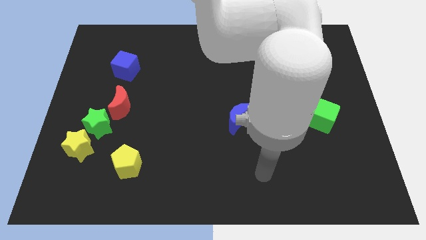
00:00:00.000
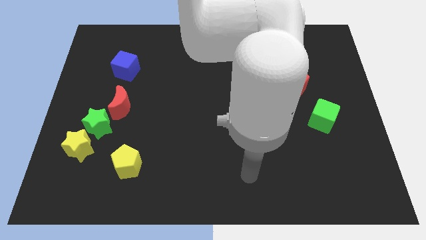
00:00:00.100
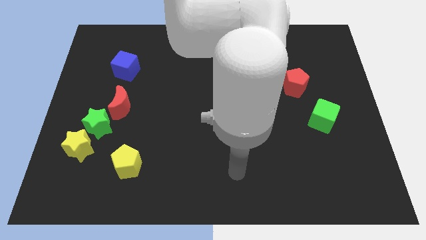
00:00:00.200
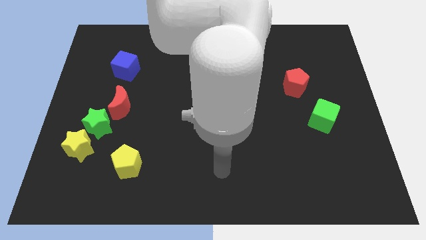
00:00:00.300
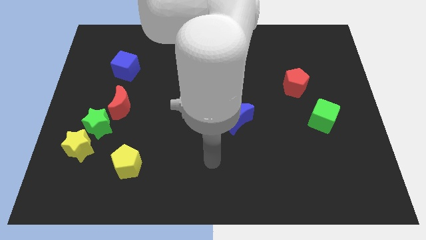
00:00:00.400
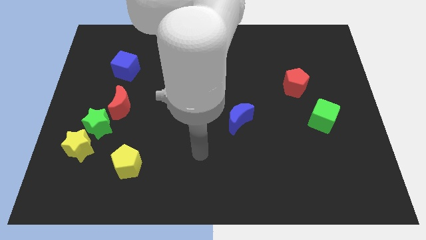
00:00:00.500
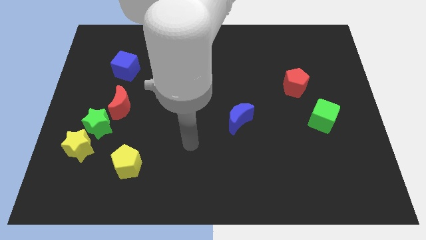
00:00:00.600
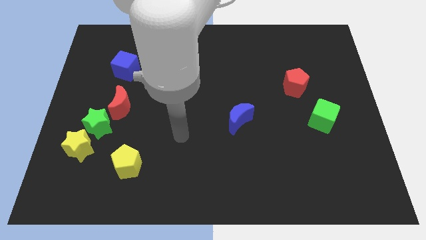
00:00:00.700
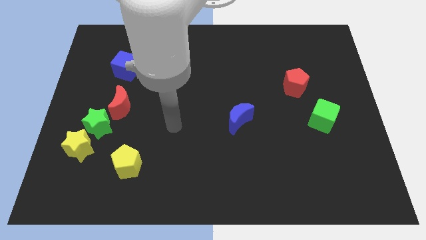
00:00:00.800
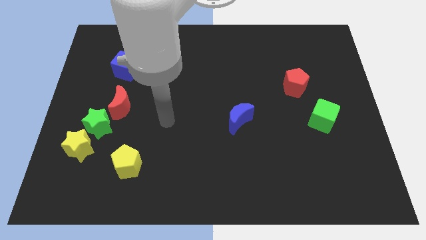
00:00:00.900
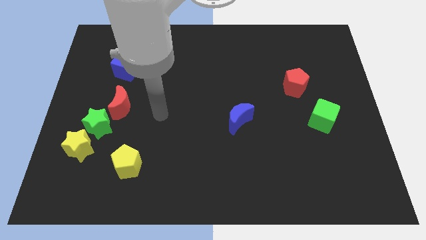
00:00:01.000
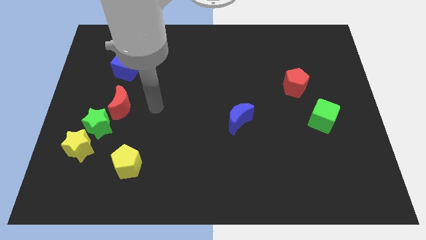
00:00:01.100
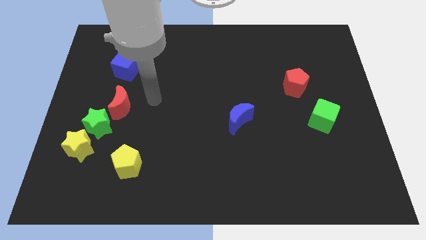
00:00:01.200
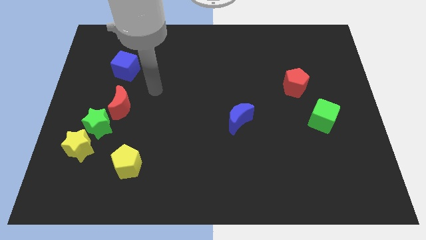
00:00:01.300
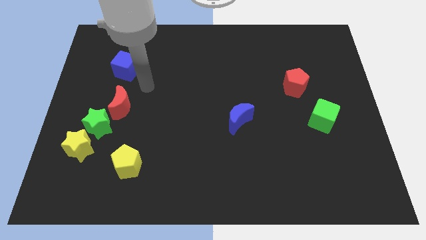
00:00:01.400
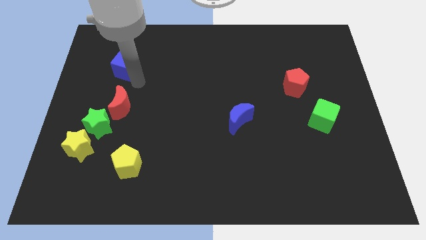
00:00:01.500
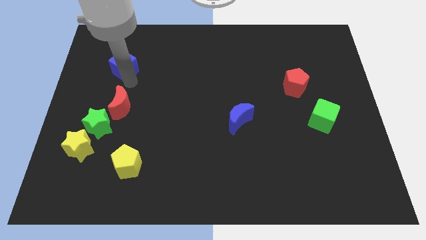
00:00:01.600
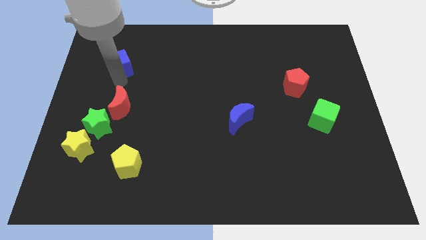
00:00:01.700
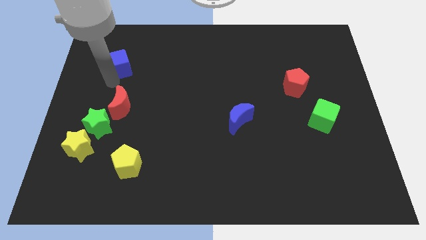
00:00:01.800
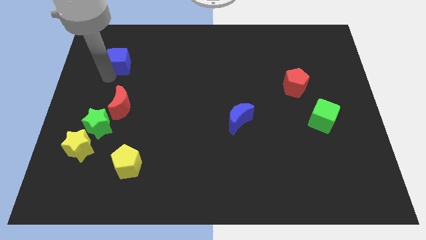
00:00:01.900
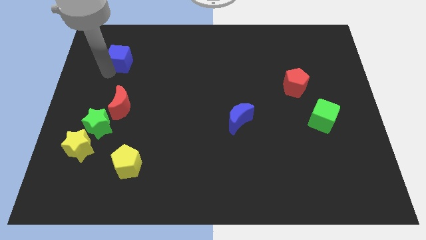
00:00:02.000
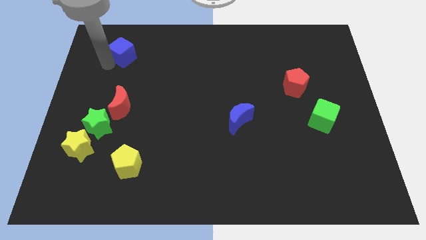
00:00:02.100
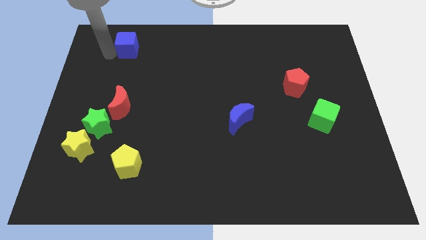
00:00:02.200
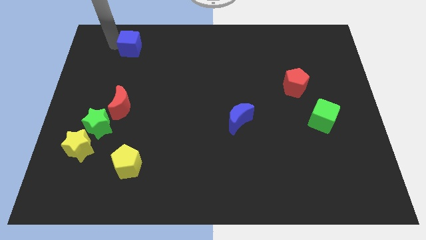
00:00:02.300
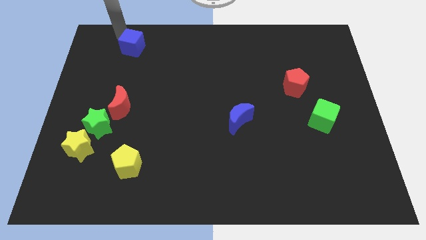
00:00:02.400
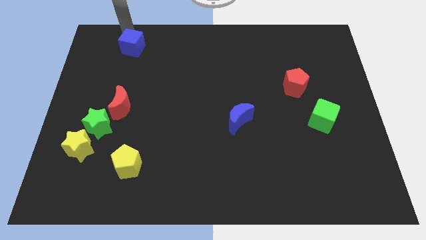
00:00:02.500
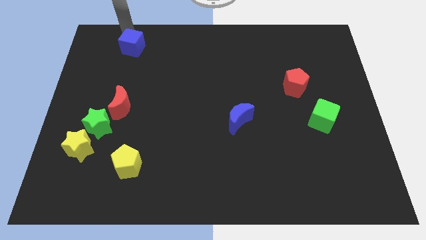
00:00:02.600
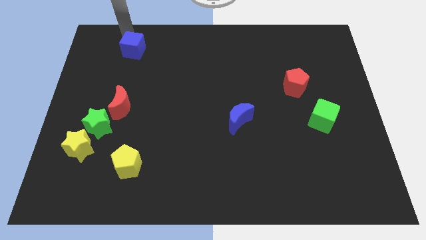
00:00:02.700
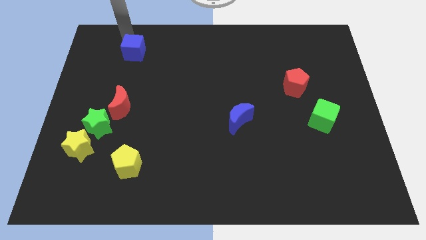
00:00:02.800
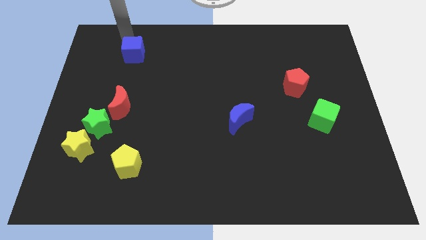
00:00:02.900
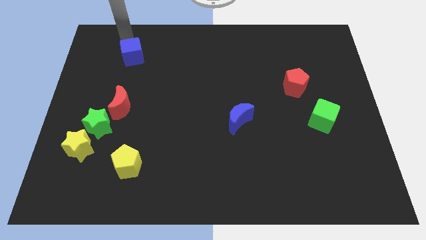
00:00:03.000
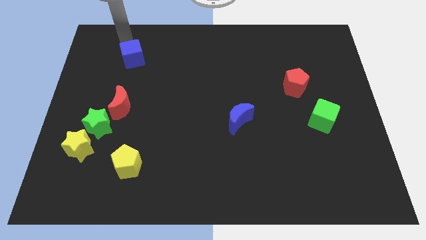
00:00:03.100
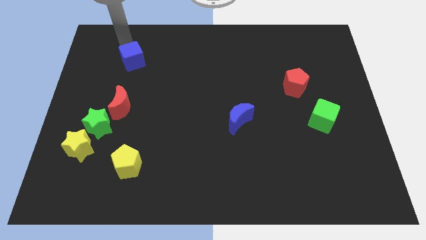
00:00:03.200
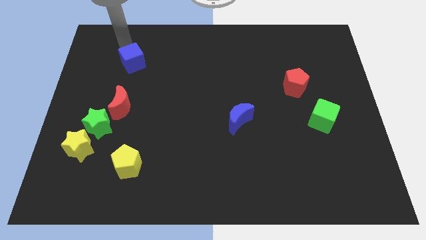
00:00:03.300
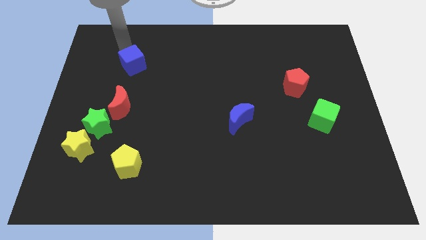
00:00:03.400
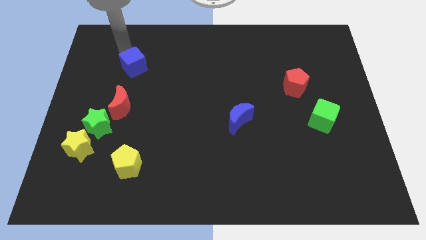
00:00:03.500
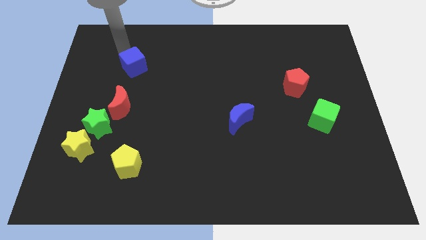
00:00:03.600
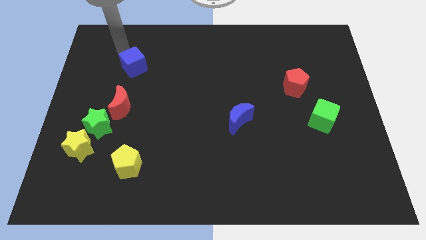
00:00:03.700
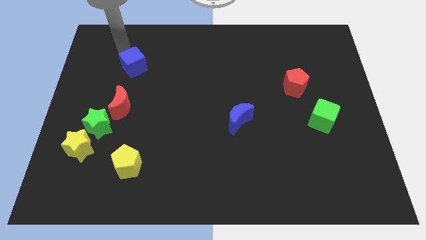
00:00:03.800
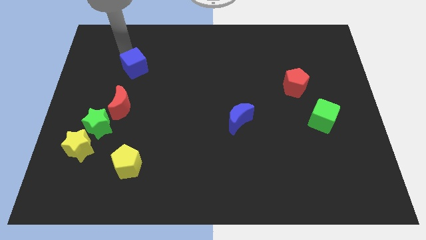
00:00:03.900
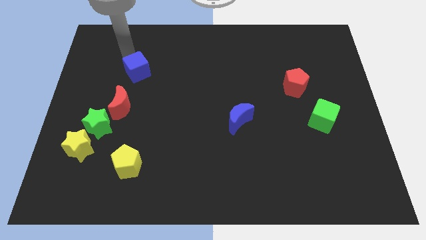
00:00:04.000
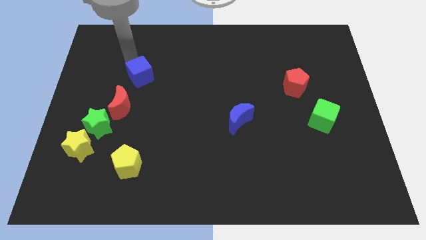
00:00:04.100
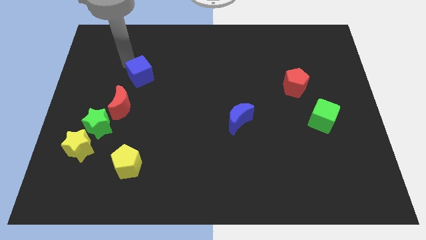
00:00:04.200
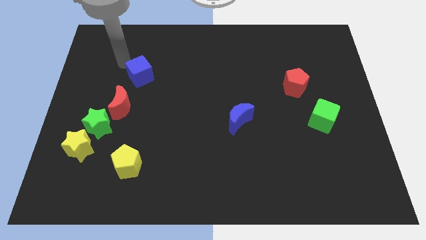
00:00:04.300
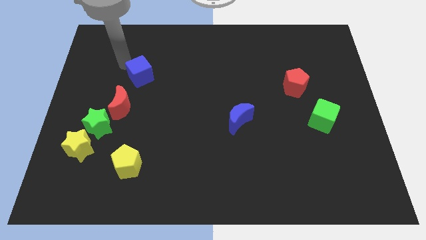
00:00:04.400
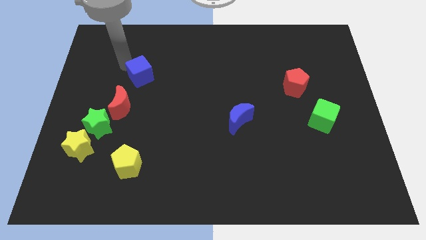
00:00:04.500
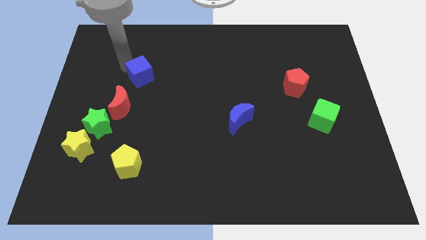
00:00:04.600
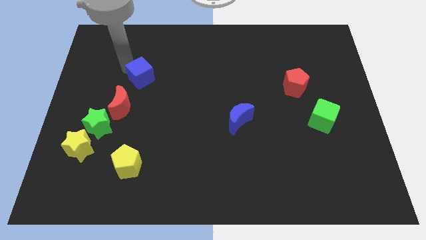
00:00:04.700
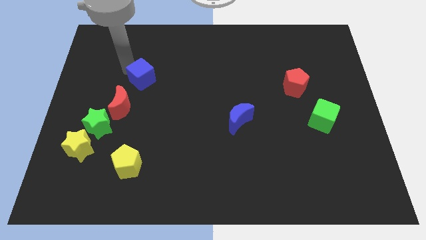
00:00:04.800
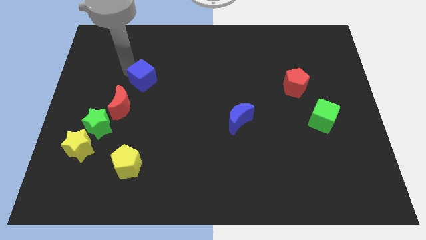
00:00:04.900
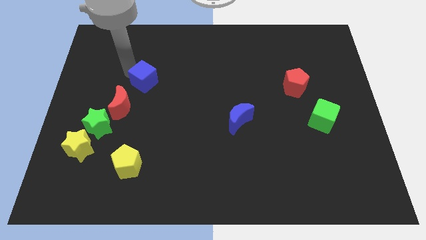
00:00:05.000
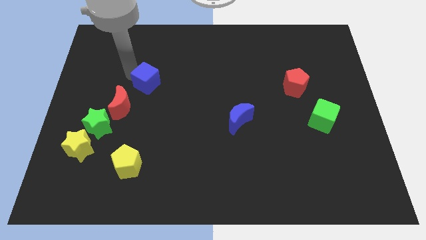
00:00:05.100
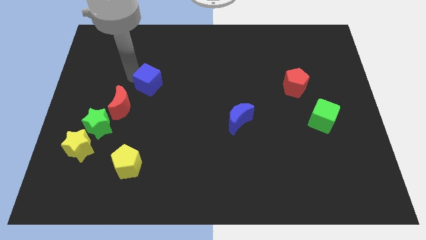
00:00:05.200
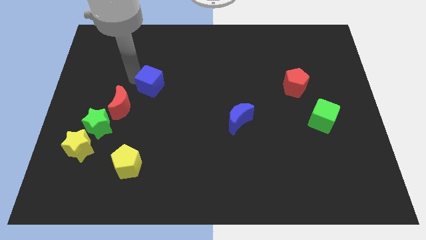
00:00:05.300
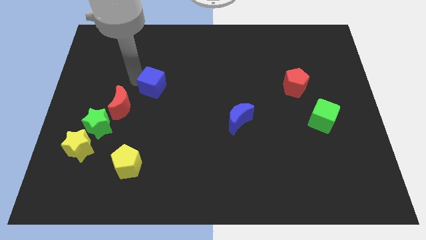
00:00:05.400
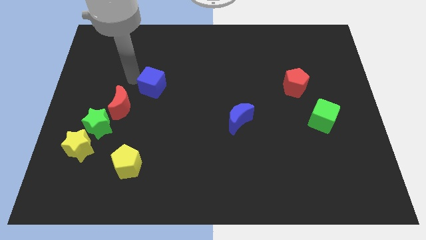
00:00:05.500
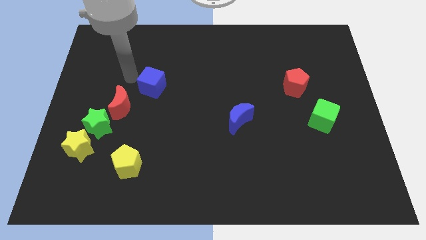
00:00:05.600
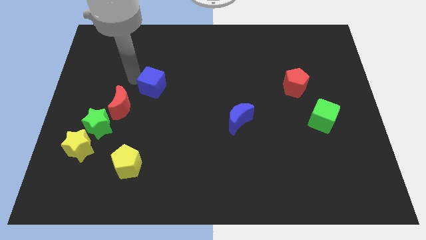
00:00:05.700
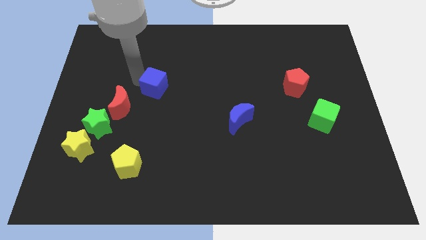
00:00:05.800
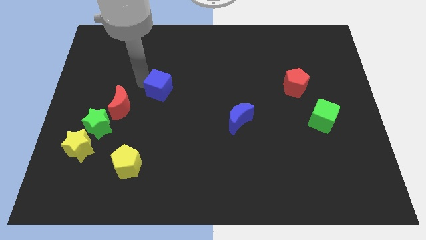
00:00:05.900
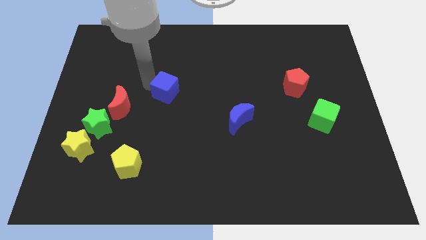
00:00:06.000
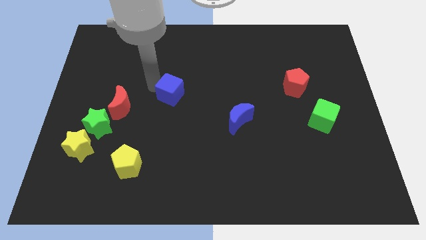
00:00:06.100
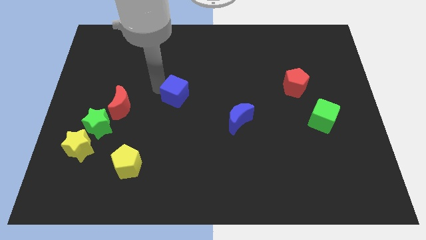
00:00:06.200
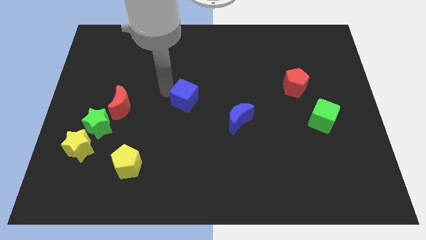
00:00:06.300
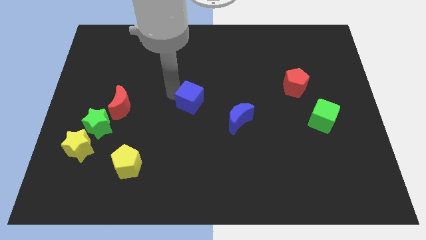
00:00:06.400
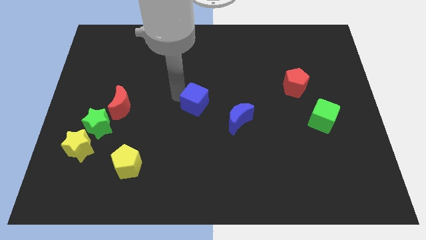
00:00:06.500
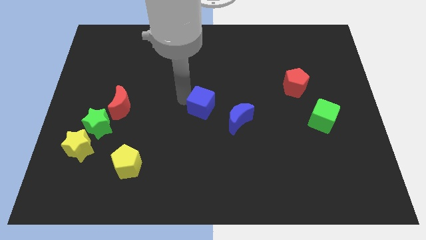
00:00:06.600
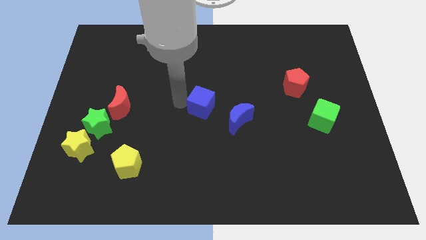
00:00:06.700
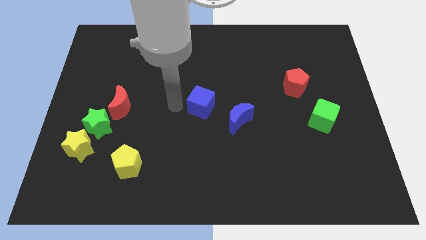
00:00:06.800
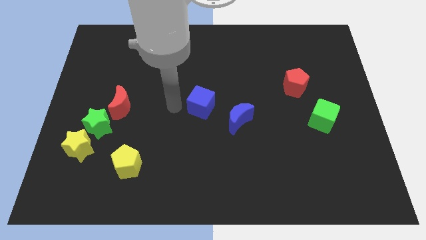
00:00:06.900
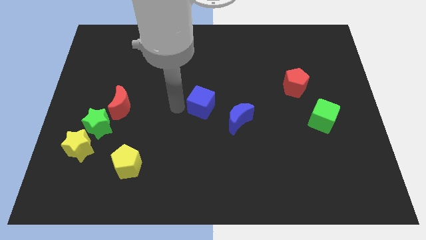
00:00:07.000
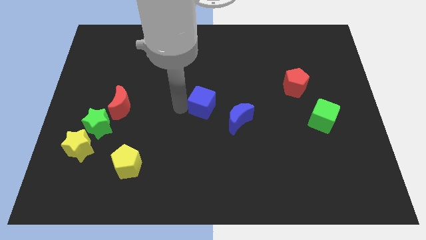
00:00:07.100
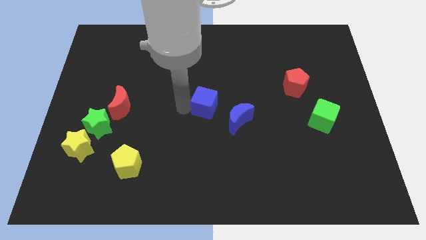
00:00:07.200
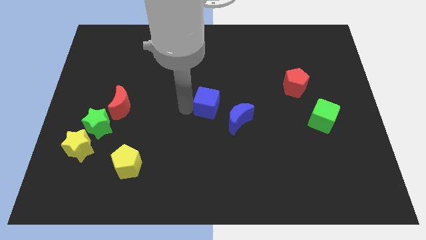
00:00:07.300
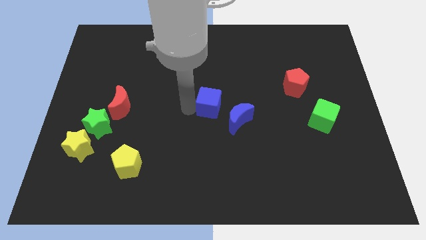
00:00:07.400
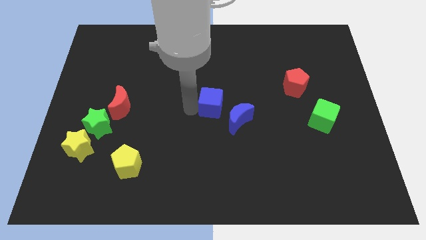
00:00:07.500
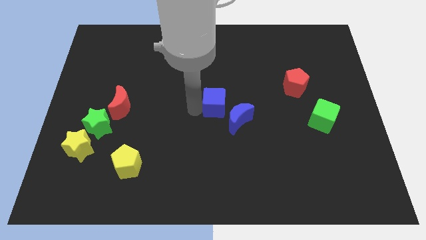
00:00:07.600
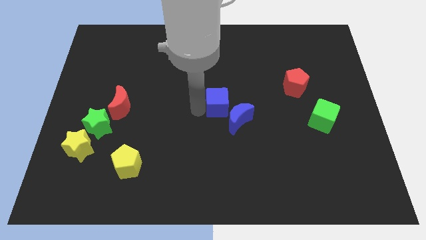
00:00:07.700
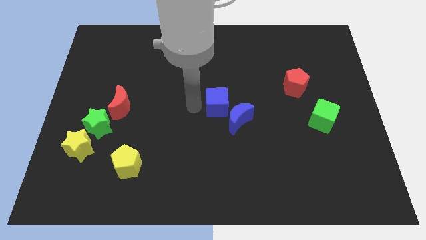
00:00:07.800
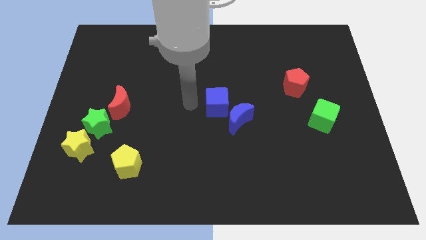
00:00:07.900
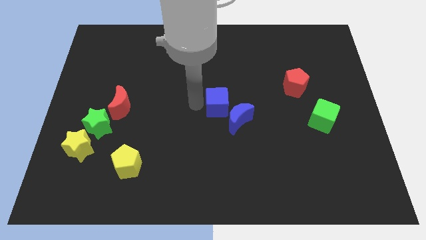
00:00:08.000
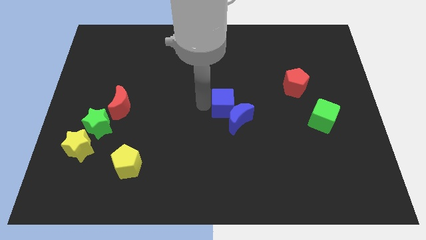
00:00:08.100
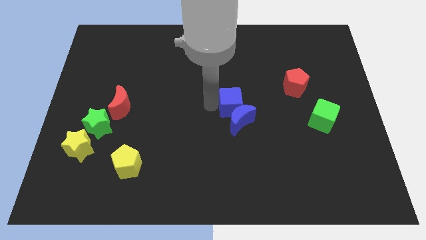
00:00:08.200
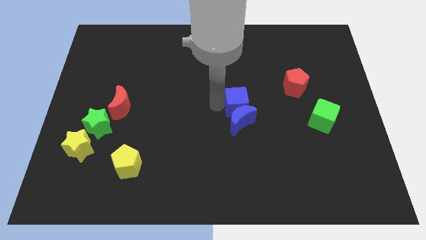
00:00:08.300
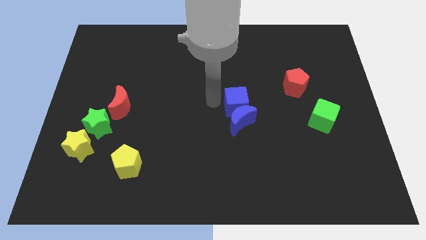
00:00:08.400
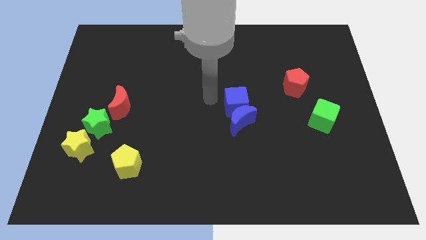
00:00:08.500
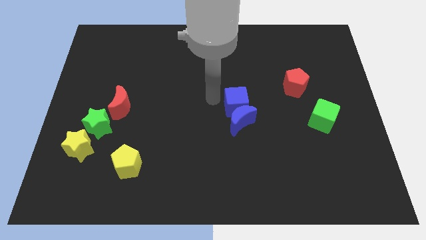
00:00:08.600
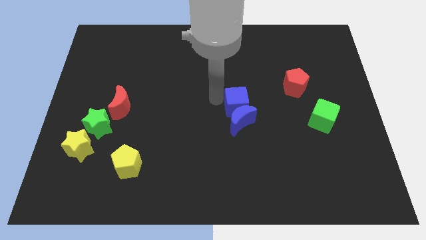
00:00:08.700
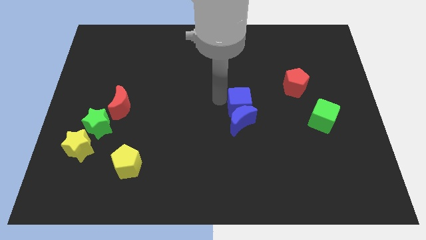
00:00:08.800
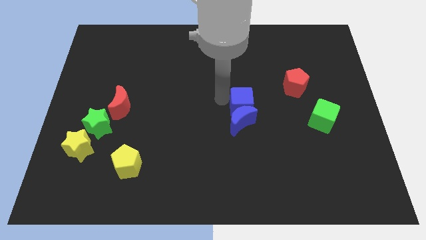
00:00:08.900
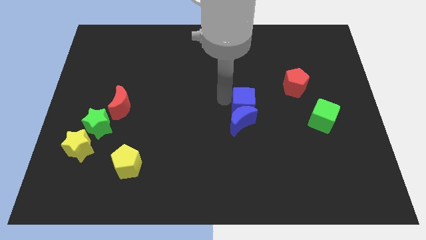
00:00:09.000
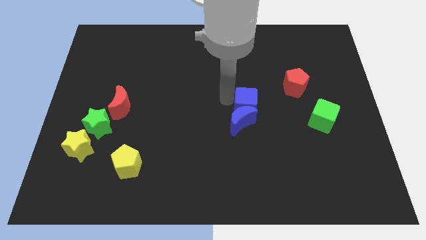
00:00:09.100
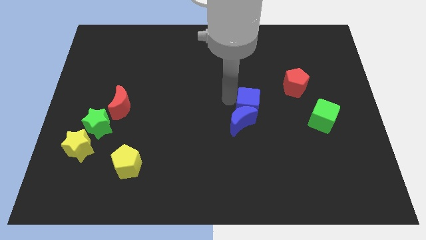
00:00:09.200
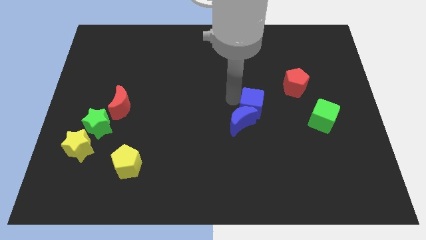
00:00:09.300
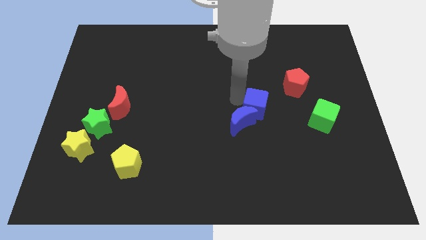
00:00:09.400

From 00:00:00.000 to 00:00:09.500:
push the blue cube right of the blue moon
